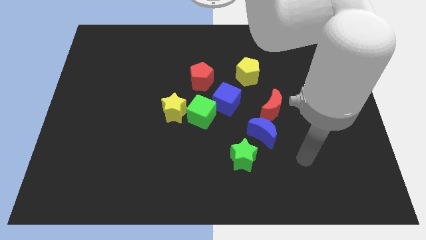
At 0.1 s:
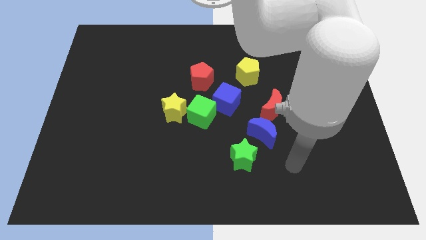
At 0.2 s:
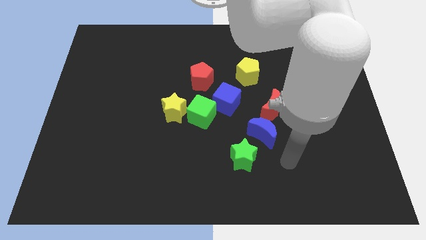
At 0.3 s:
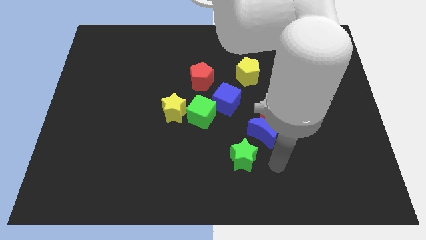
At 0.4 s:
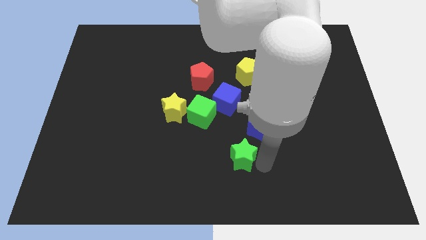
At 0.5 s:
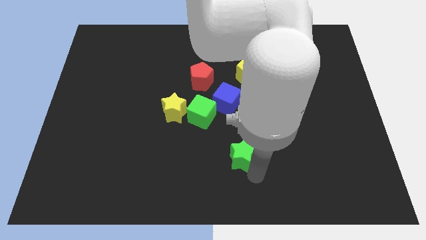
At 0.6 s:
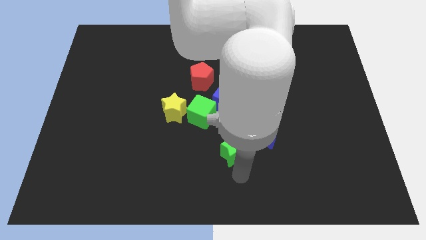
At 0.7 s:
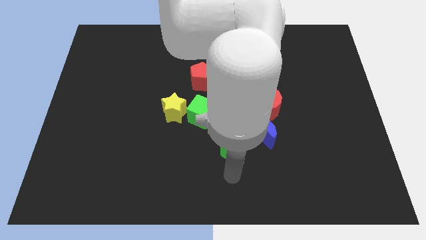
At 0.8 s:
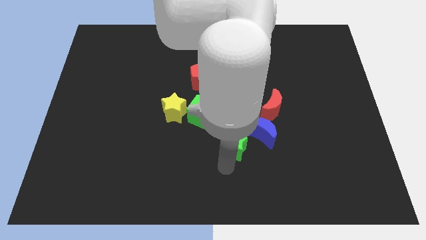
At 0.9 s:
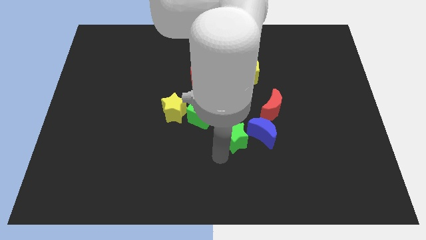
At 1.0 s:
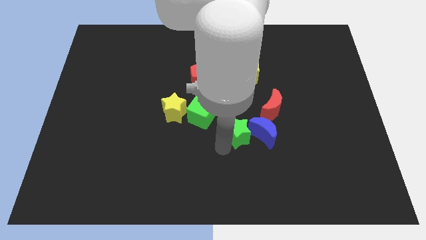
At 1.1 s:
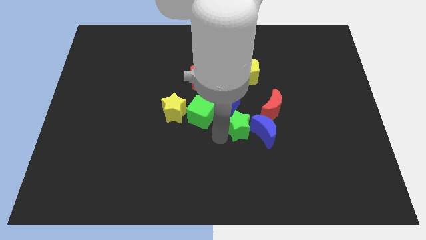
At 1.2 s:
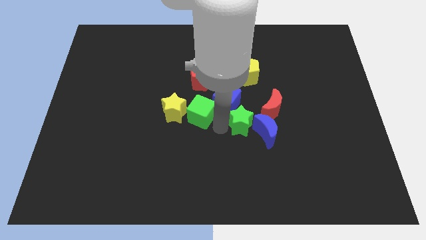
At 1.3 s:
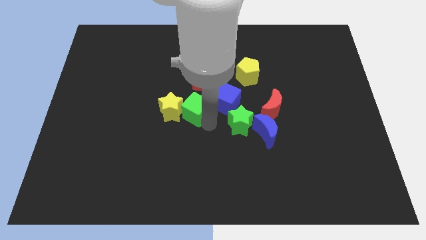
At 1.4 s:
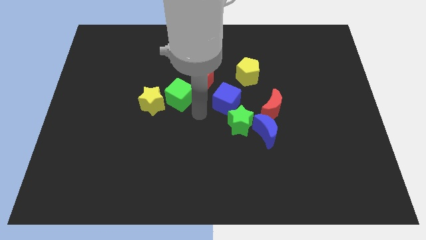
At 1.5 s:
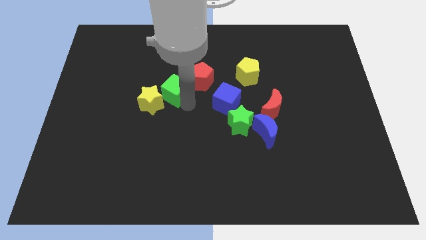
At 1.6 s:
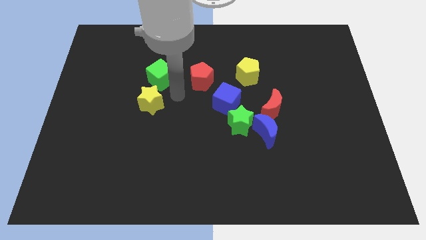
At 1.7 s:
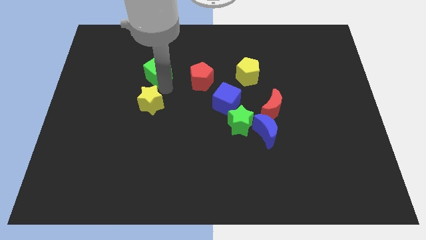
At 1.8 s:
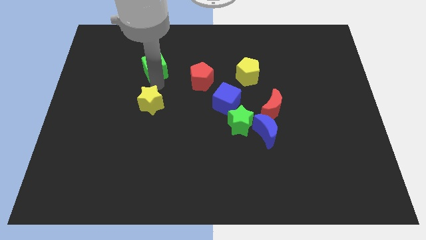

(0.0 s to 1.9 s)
pull the yellow star apart from the green cube

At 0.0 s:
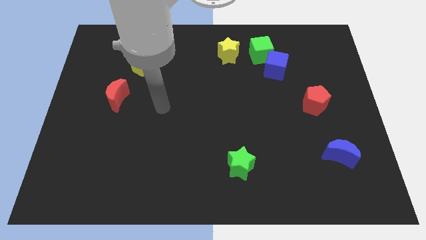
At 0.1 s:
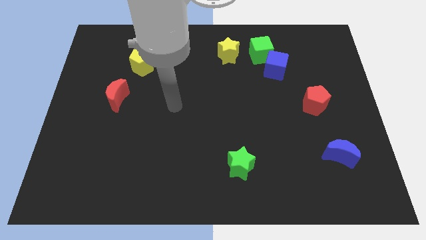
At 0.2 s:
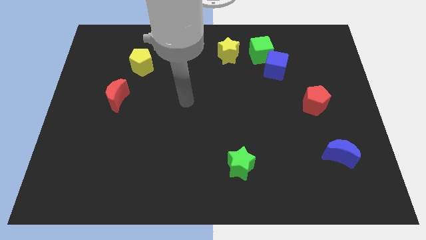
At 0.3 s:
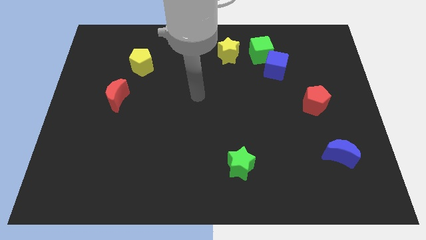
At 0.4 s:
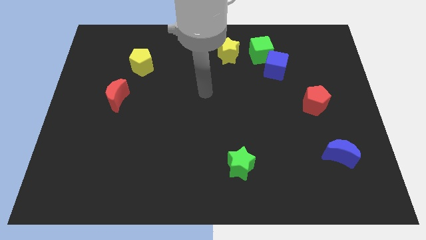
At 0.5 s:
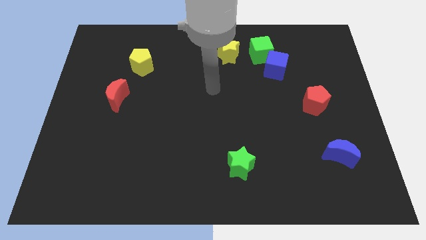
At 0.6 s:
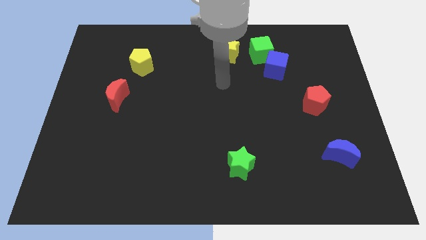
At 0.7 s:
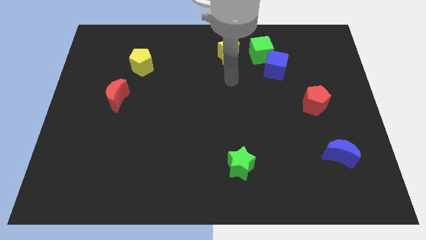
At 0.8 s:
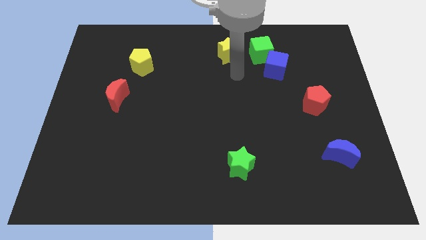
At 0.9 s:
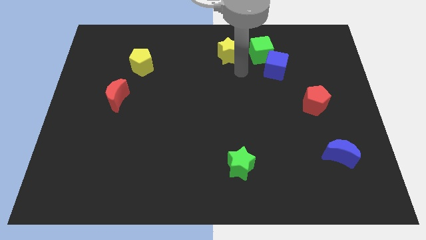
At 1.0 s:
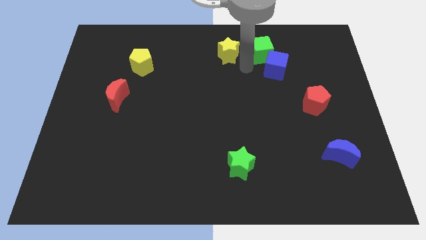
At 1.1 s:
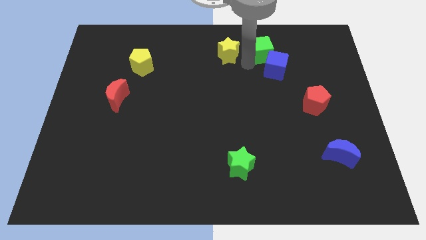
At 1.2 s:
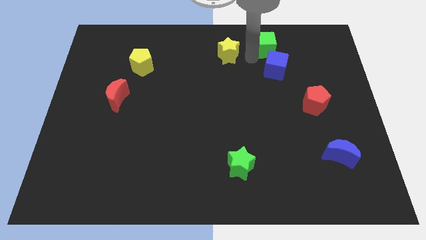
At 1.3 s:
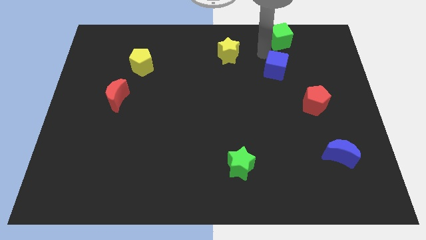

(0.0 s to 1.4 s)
separate the blue cube from the green cube

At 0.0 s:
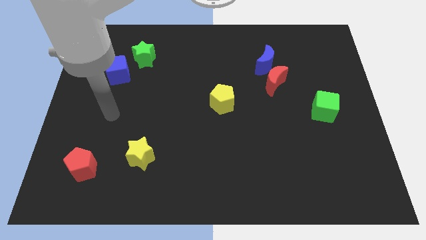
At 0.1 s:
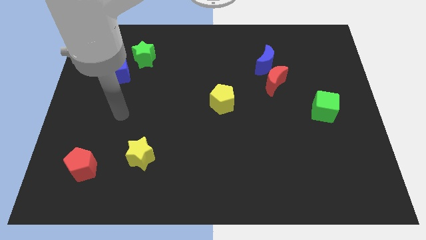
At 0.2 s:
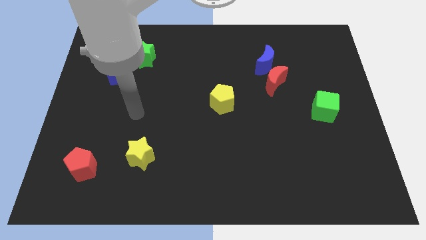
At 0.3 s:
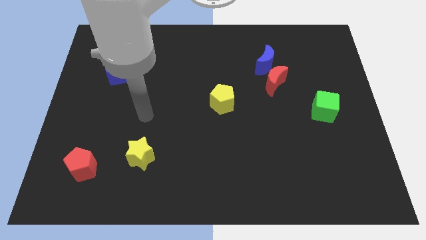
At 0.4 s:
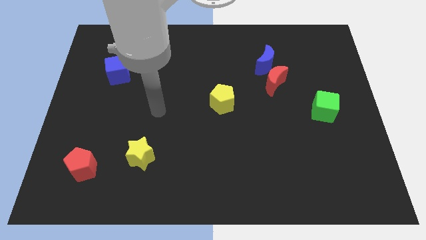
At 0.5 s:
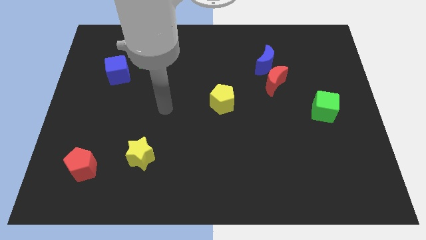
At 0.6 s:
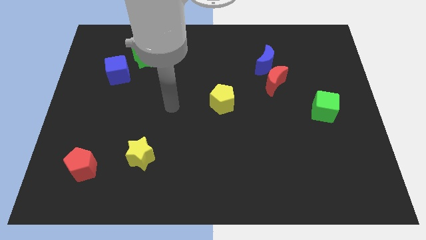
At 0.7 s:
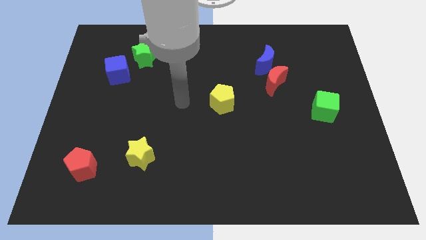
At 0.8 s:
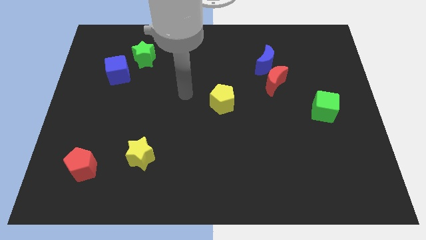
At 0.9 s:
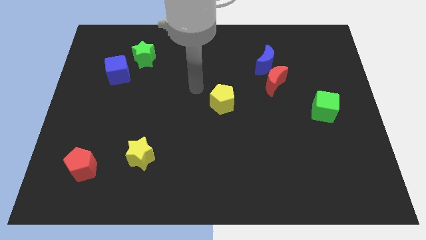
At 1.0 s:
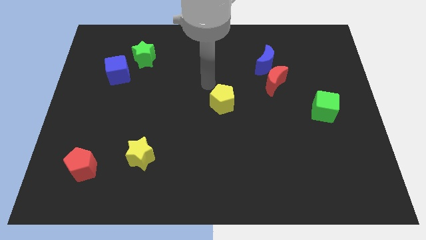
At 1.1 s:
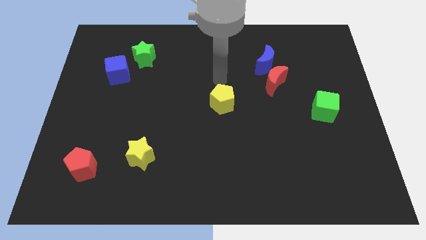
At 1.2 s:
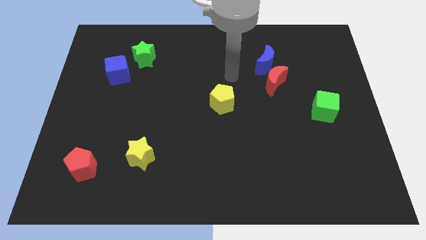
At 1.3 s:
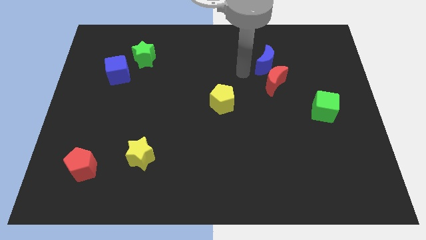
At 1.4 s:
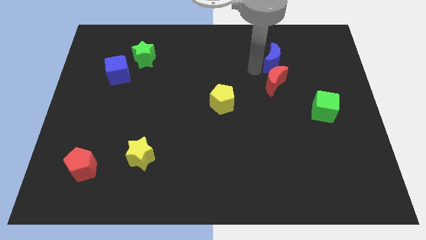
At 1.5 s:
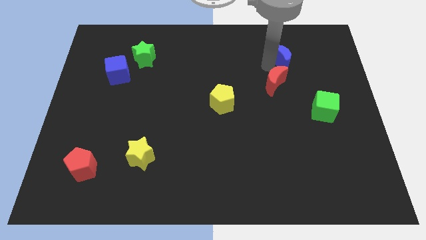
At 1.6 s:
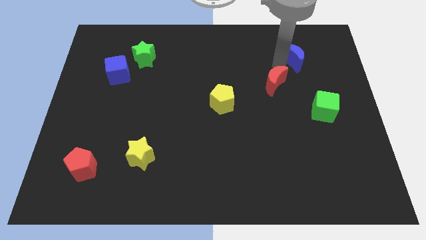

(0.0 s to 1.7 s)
move the red moon away from the blue moon

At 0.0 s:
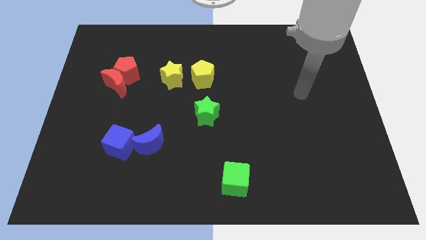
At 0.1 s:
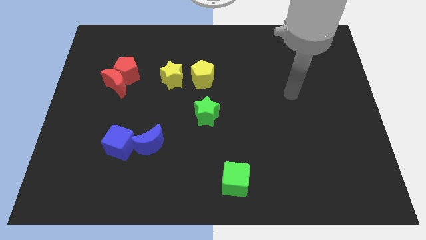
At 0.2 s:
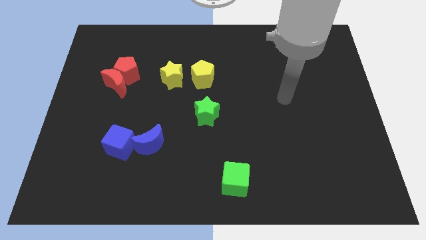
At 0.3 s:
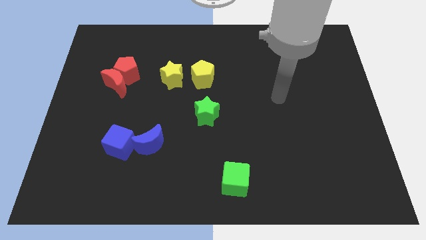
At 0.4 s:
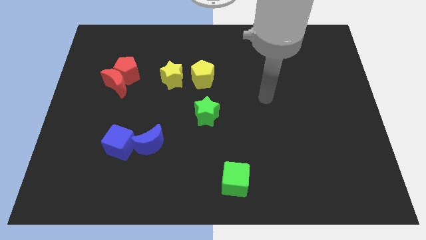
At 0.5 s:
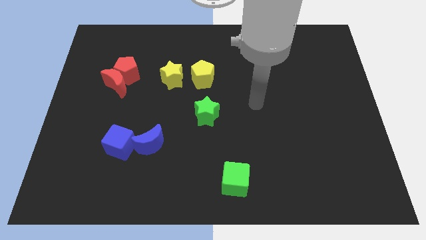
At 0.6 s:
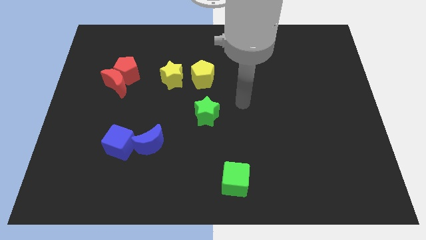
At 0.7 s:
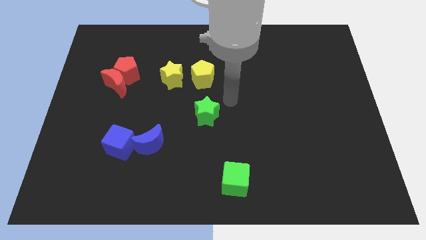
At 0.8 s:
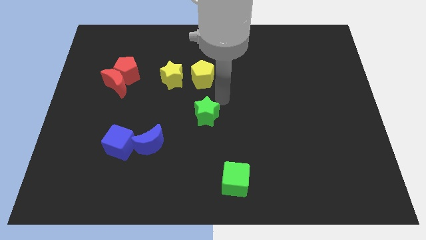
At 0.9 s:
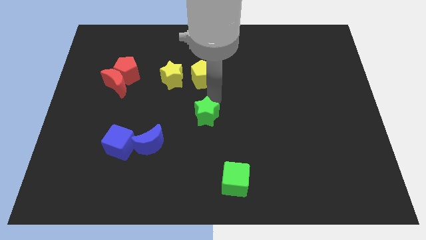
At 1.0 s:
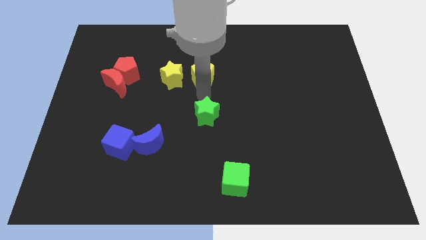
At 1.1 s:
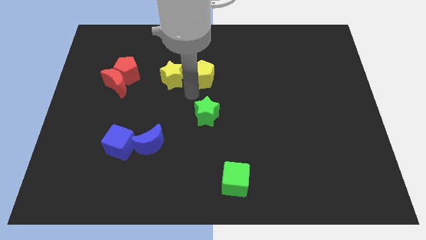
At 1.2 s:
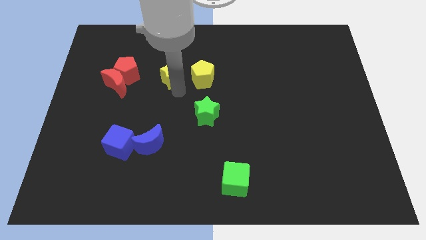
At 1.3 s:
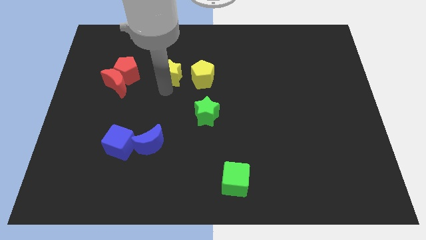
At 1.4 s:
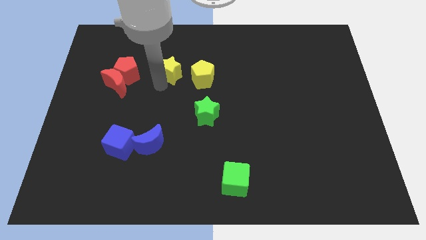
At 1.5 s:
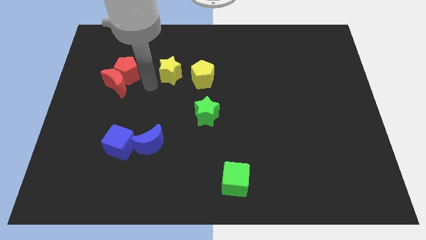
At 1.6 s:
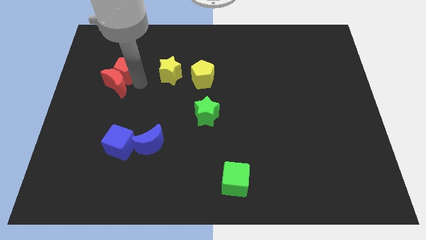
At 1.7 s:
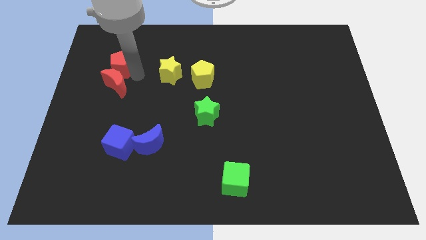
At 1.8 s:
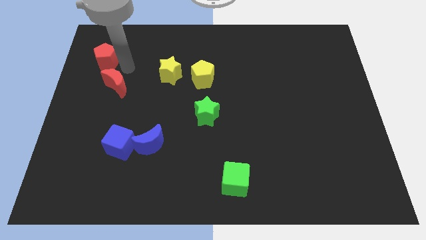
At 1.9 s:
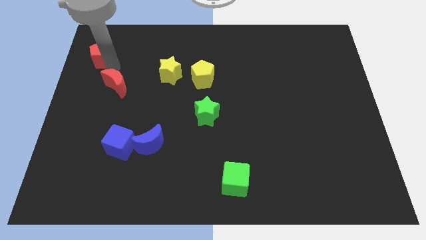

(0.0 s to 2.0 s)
separate the red moon from the red pentagon

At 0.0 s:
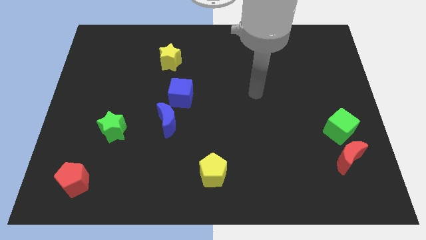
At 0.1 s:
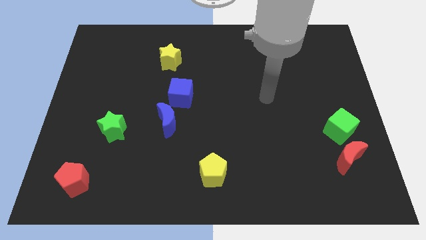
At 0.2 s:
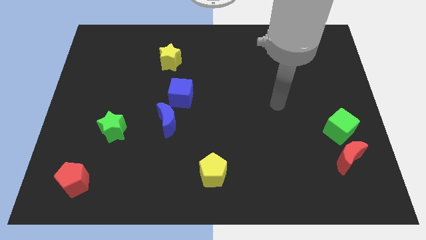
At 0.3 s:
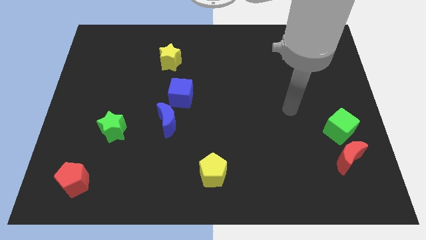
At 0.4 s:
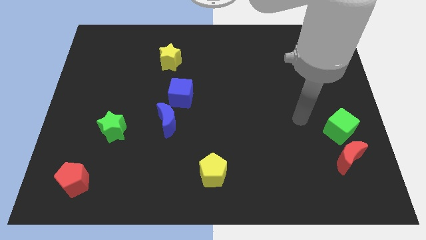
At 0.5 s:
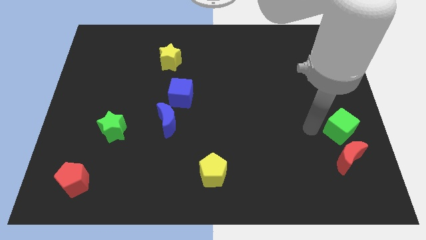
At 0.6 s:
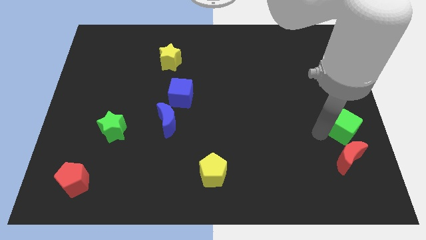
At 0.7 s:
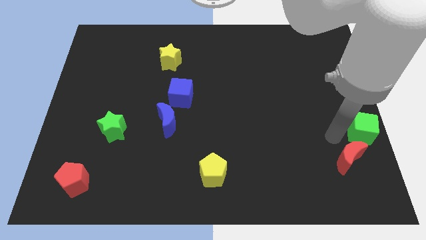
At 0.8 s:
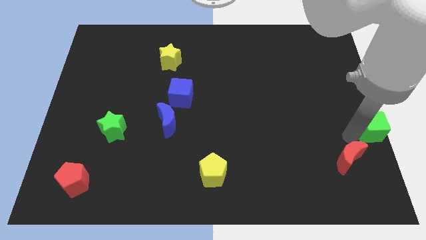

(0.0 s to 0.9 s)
separate the red moon from the green cube

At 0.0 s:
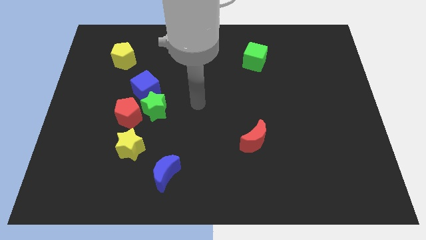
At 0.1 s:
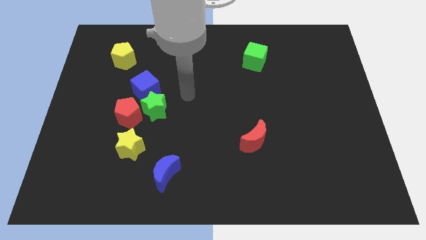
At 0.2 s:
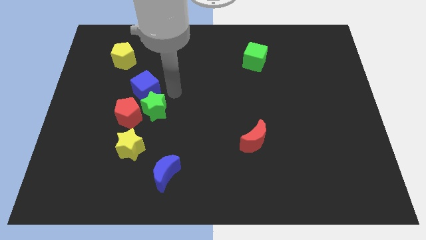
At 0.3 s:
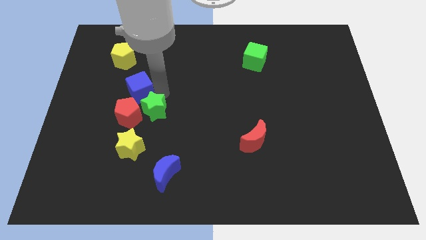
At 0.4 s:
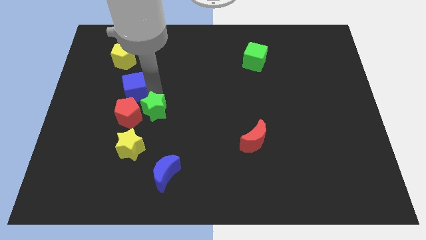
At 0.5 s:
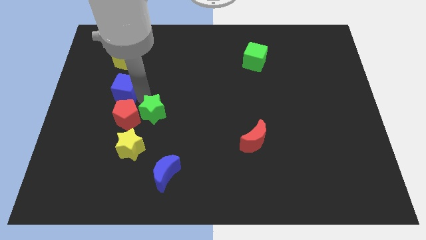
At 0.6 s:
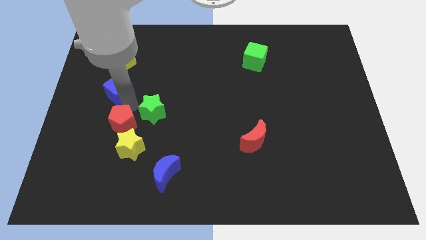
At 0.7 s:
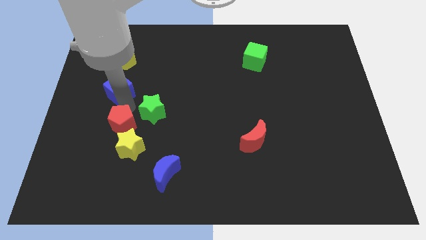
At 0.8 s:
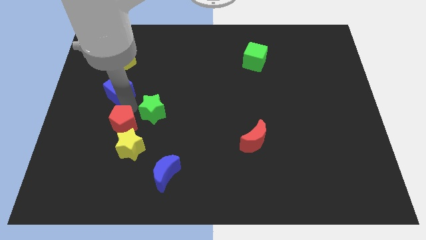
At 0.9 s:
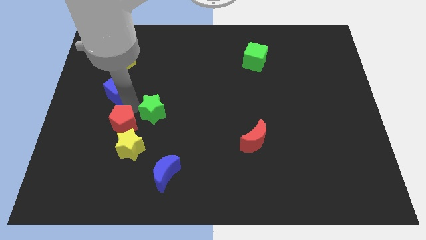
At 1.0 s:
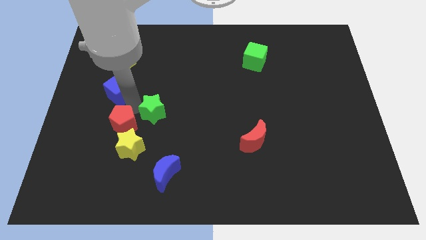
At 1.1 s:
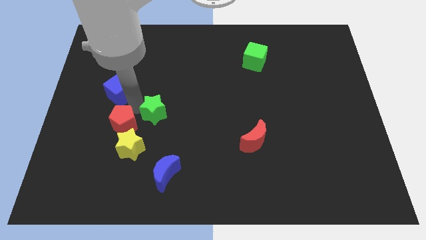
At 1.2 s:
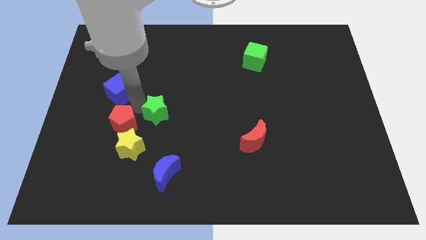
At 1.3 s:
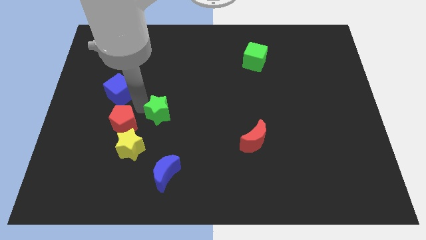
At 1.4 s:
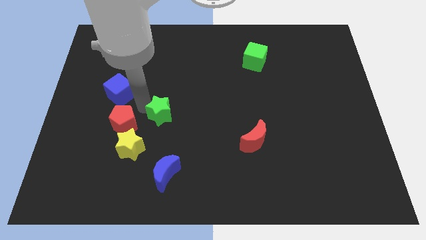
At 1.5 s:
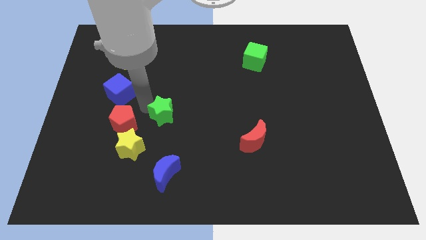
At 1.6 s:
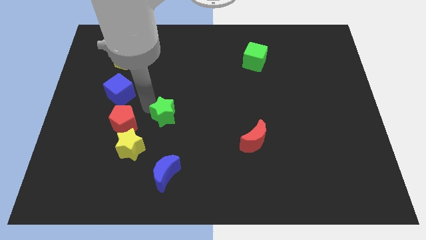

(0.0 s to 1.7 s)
pull the green star apart from the red pentagon and blue cube
